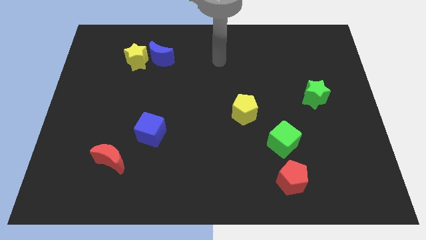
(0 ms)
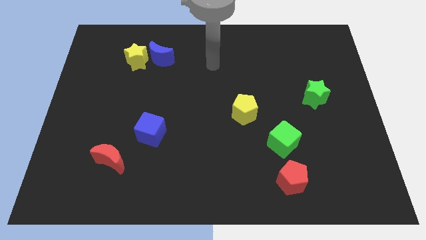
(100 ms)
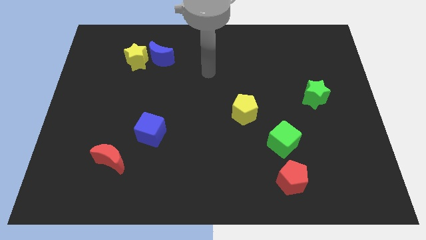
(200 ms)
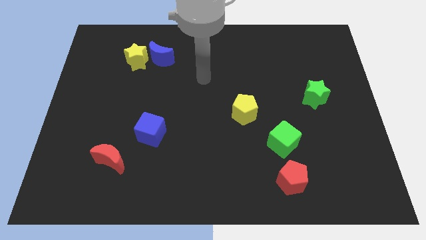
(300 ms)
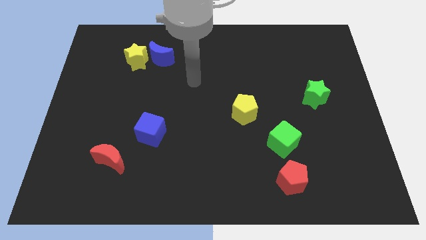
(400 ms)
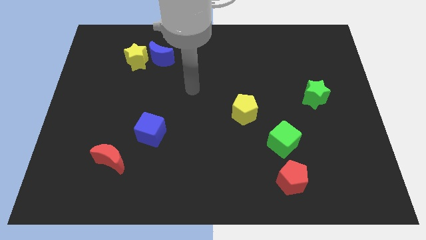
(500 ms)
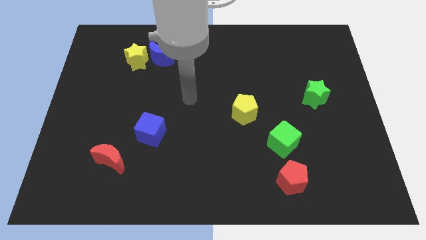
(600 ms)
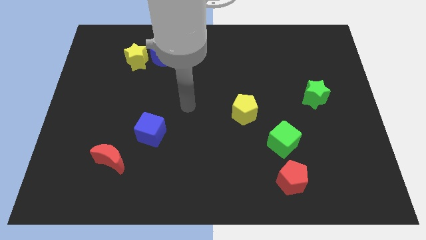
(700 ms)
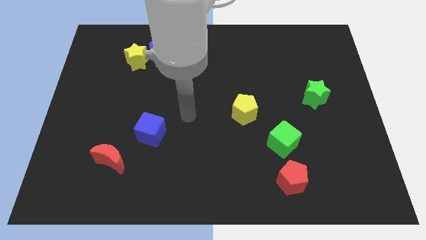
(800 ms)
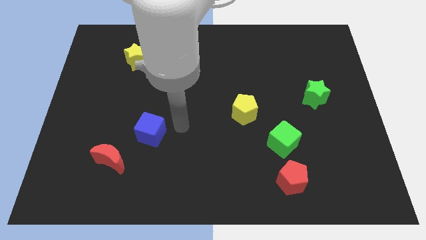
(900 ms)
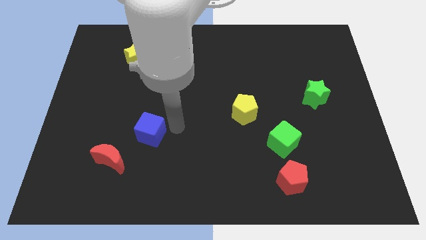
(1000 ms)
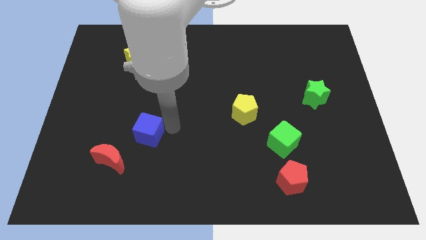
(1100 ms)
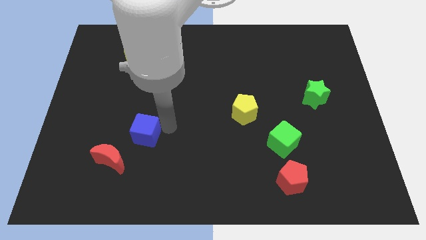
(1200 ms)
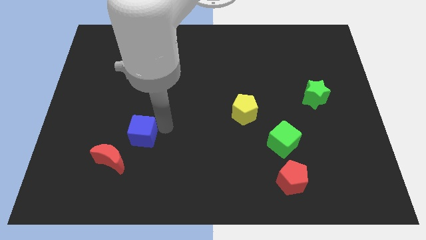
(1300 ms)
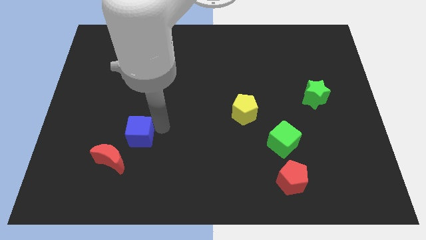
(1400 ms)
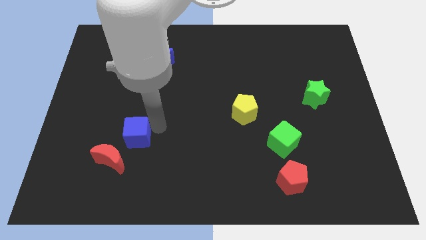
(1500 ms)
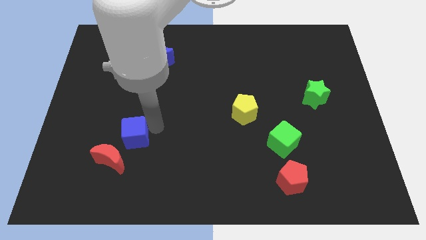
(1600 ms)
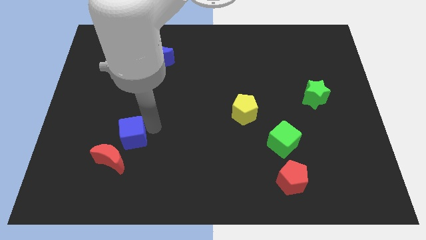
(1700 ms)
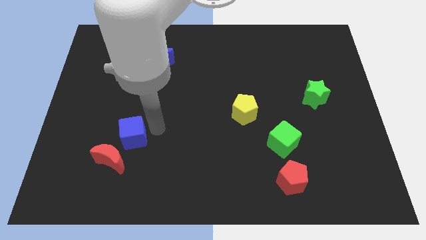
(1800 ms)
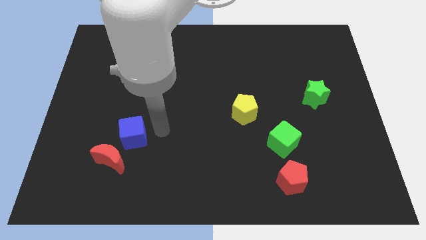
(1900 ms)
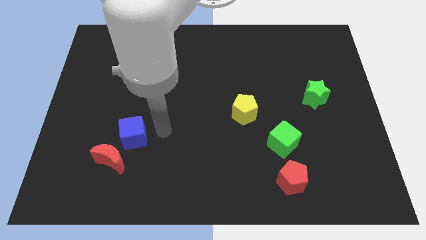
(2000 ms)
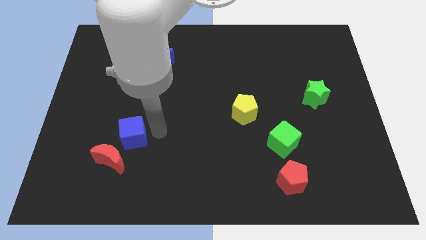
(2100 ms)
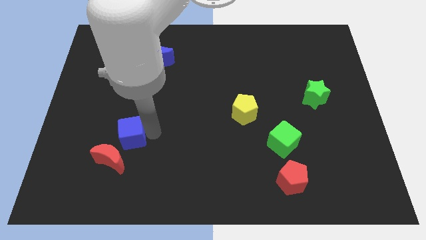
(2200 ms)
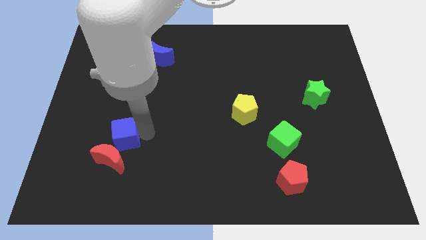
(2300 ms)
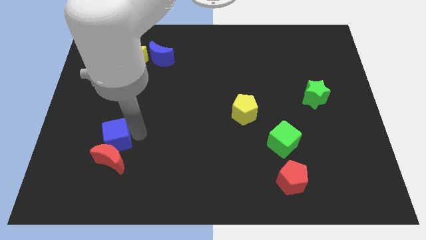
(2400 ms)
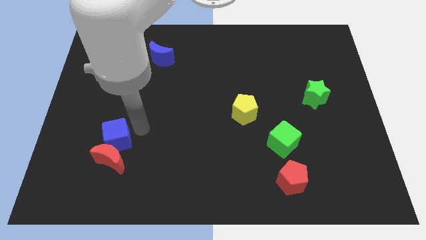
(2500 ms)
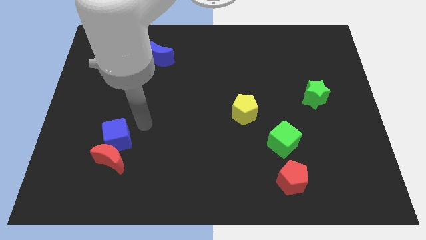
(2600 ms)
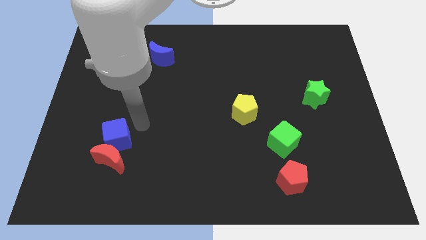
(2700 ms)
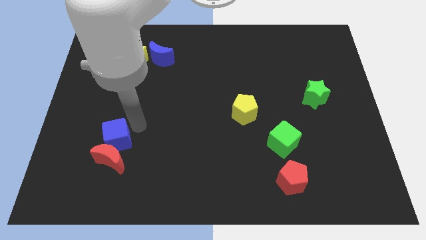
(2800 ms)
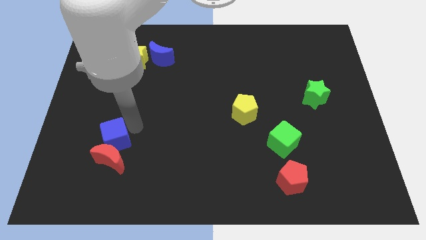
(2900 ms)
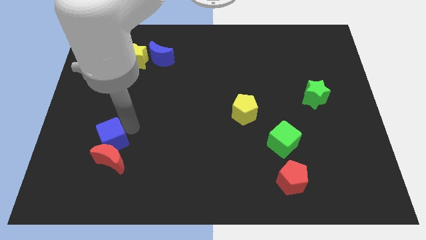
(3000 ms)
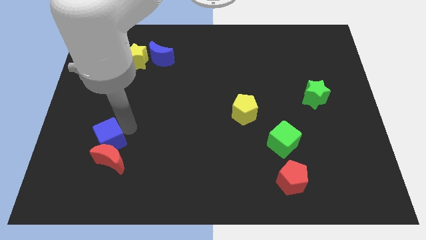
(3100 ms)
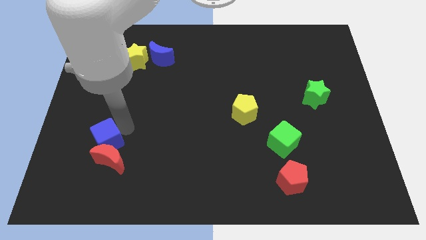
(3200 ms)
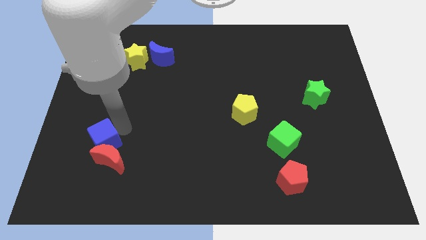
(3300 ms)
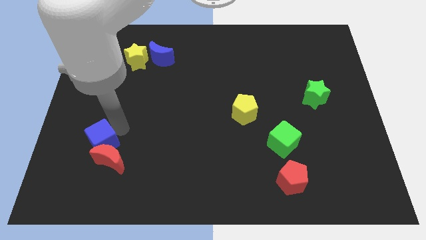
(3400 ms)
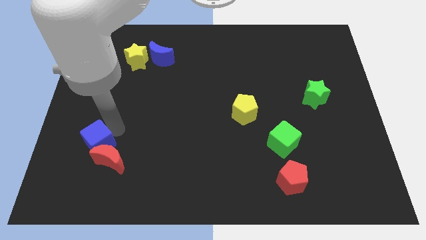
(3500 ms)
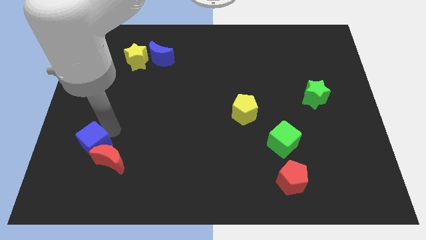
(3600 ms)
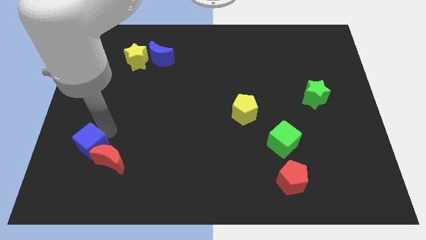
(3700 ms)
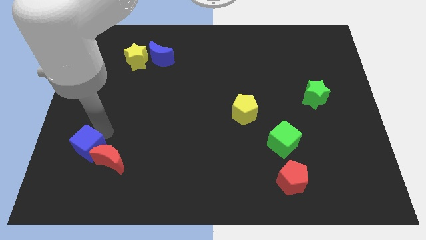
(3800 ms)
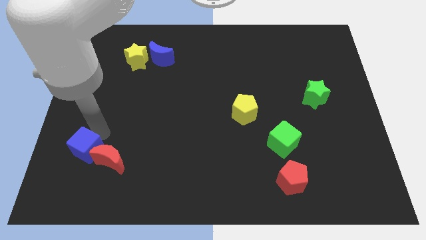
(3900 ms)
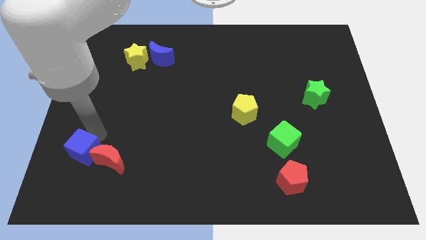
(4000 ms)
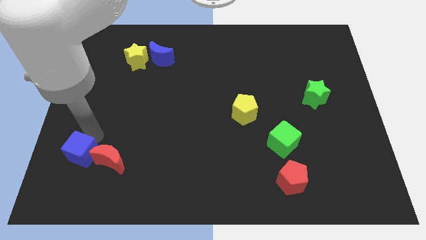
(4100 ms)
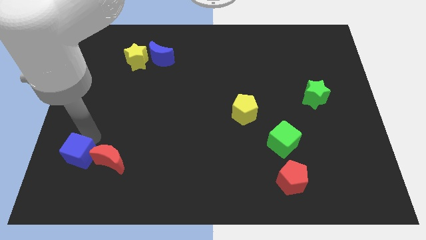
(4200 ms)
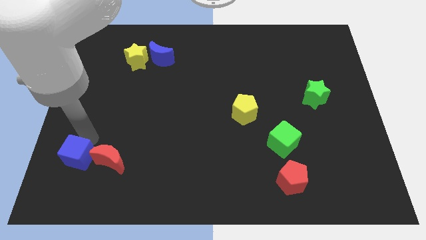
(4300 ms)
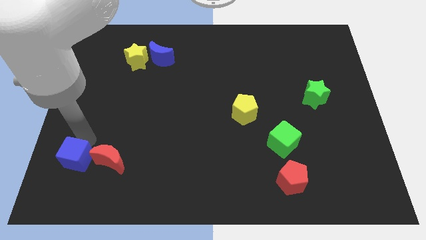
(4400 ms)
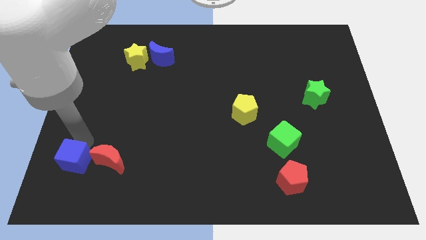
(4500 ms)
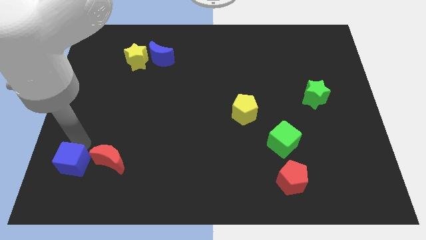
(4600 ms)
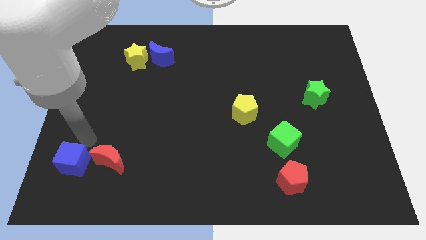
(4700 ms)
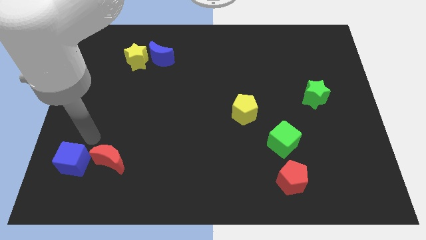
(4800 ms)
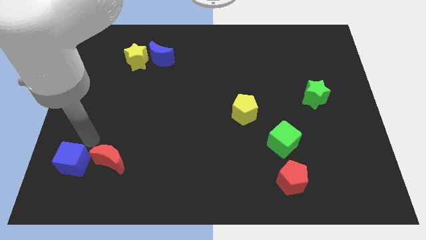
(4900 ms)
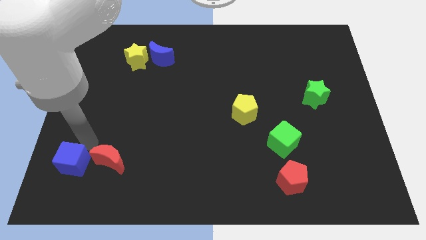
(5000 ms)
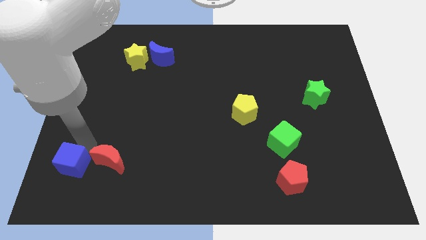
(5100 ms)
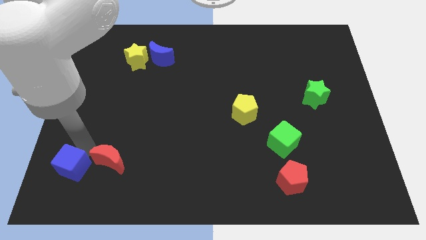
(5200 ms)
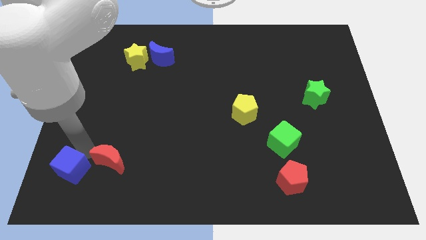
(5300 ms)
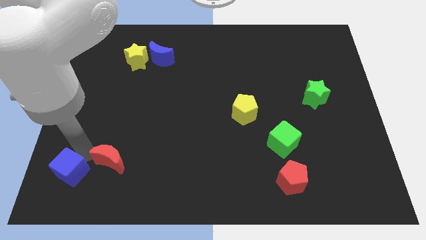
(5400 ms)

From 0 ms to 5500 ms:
put the blue cube to the bottom left of the board

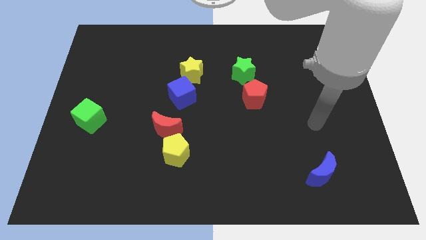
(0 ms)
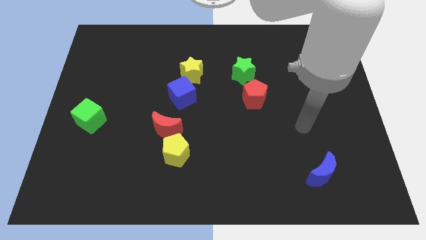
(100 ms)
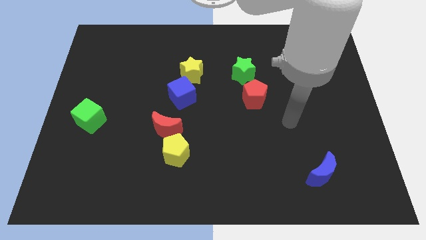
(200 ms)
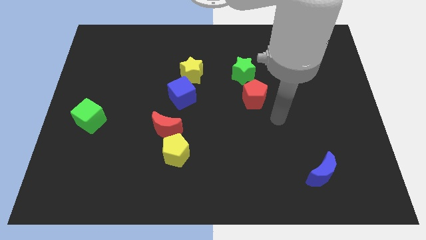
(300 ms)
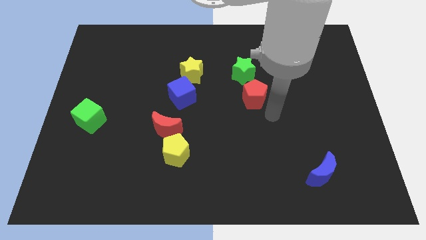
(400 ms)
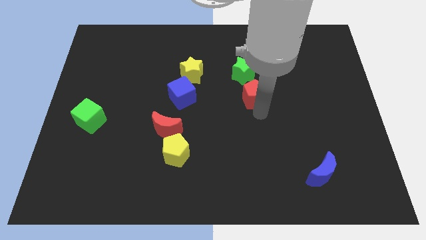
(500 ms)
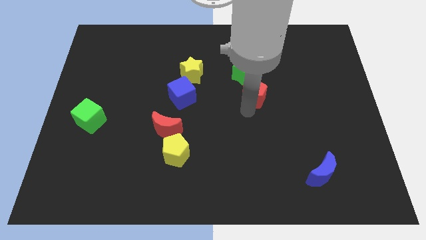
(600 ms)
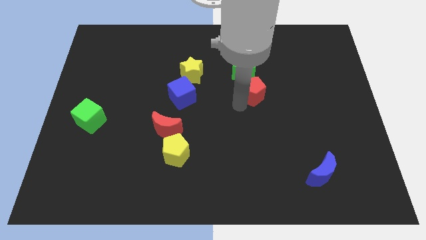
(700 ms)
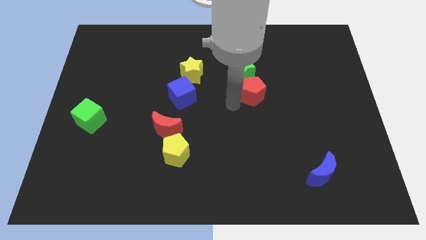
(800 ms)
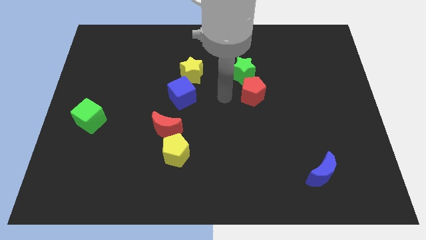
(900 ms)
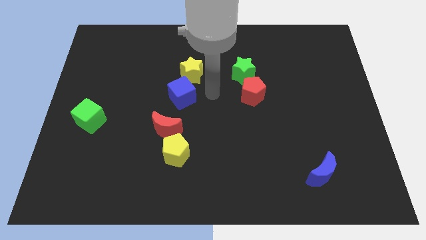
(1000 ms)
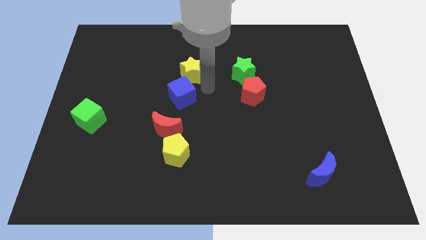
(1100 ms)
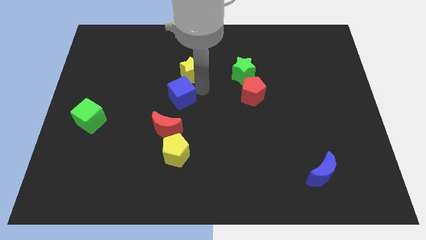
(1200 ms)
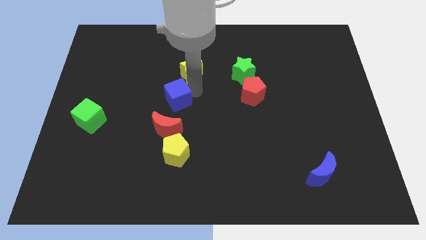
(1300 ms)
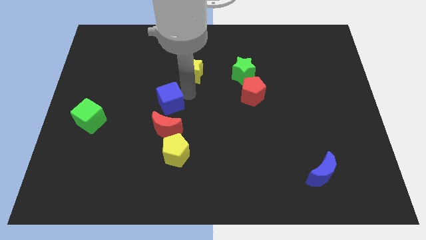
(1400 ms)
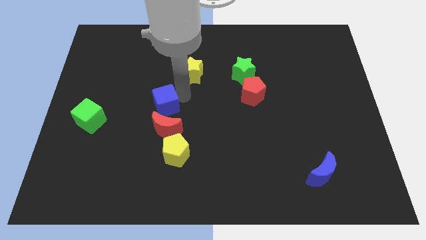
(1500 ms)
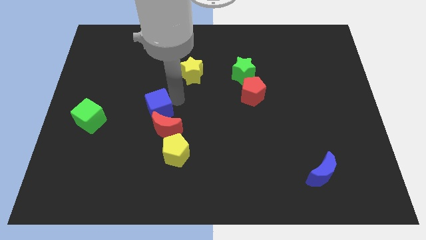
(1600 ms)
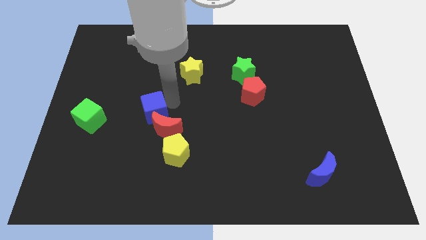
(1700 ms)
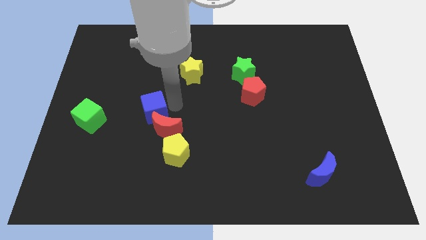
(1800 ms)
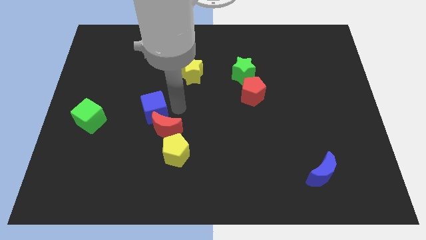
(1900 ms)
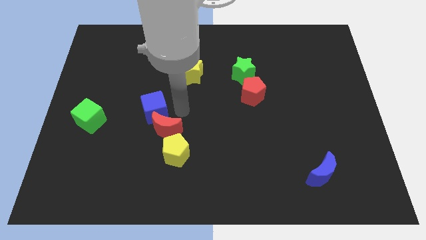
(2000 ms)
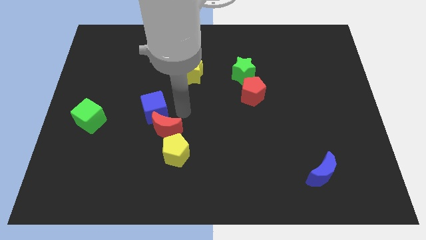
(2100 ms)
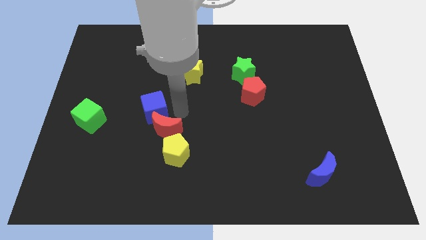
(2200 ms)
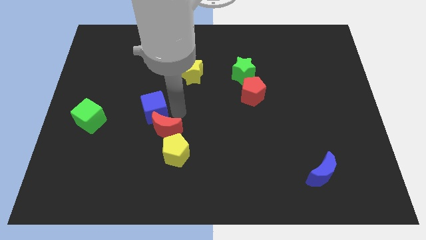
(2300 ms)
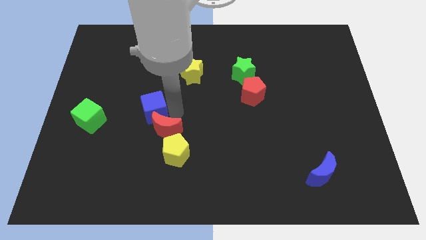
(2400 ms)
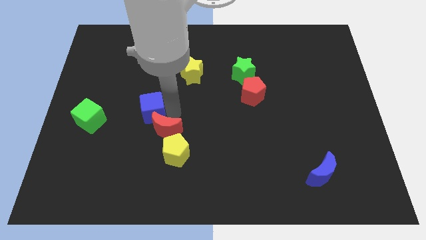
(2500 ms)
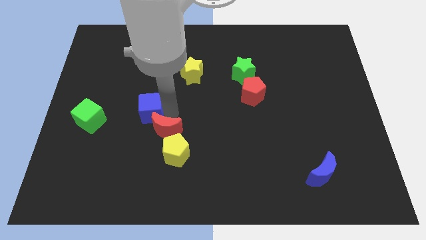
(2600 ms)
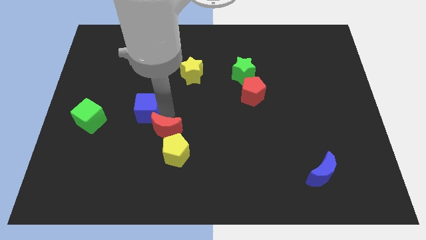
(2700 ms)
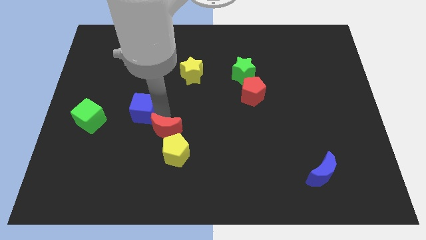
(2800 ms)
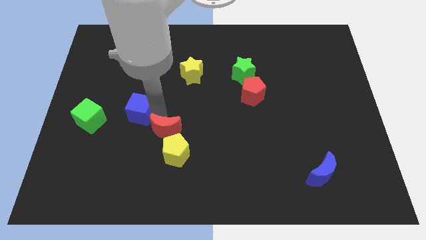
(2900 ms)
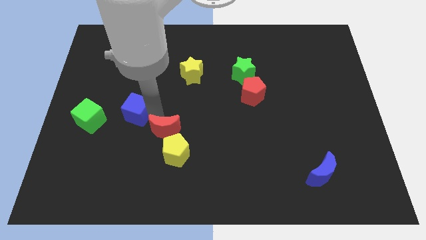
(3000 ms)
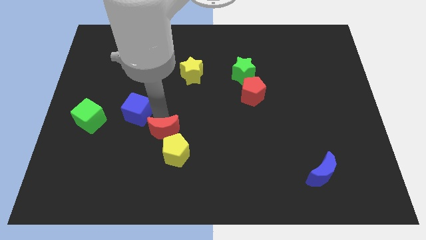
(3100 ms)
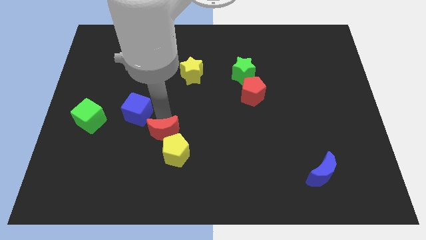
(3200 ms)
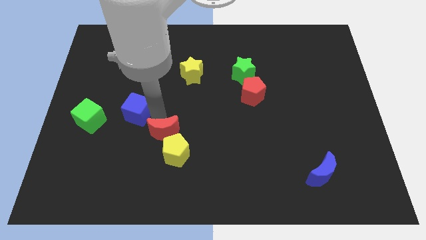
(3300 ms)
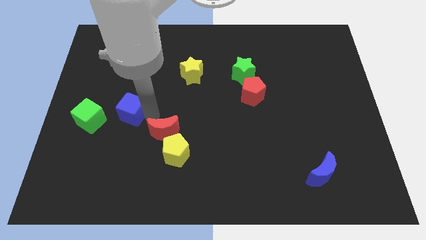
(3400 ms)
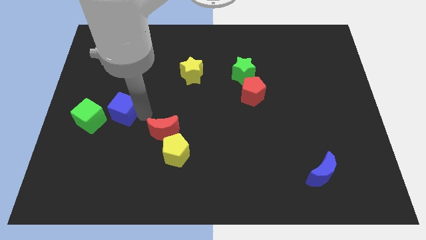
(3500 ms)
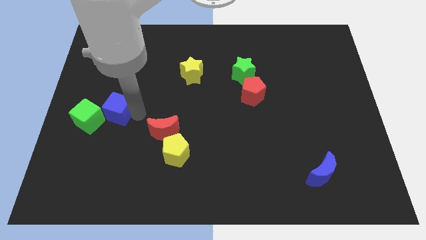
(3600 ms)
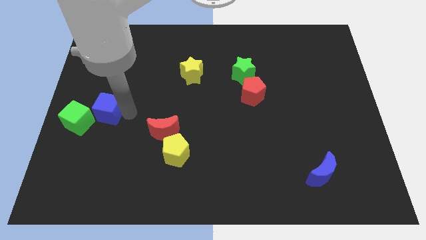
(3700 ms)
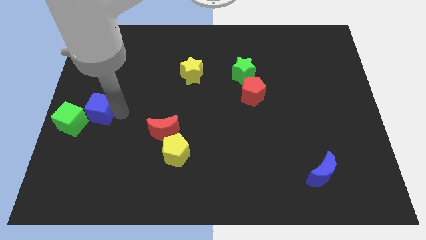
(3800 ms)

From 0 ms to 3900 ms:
slide the blue cube to the left side
